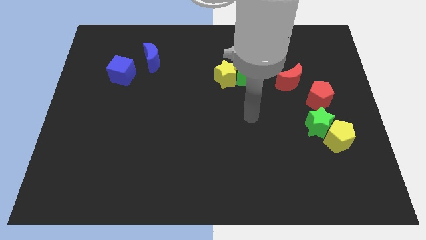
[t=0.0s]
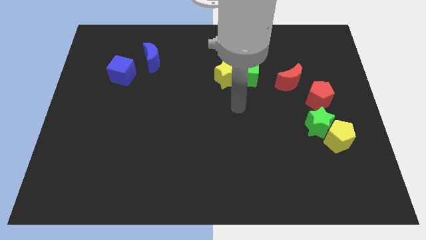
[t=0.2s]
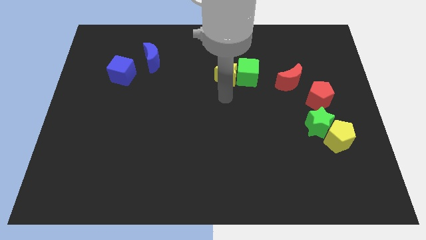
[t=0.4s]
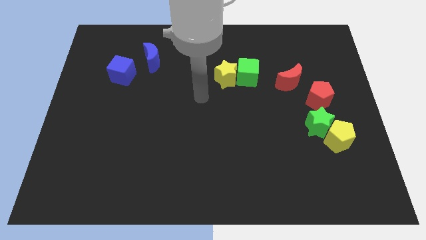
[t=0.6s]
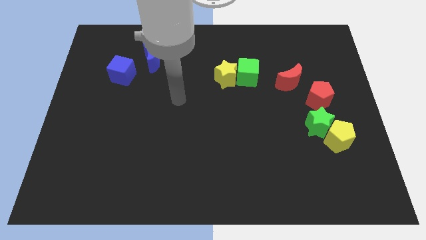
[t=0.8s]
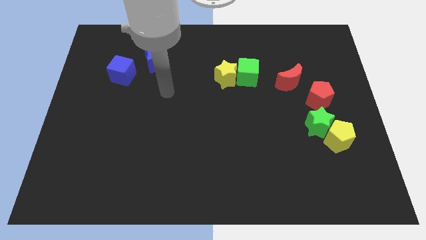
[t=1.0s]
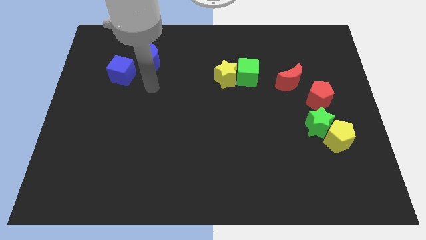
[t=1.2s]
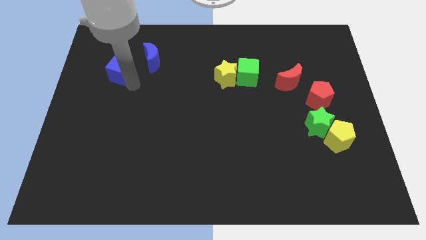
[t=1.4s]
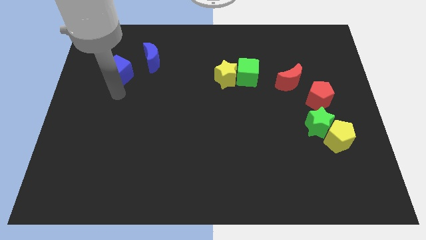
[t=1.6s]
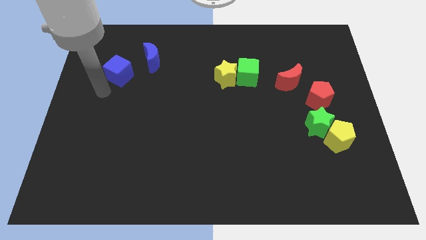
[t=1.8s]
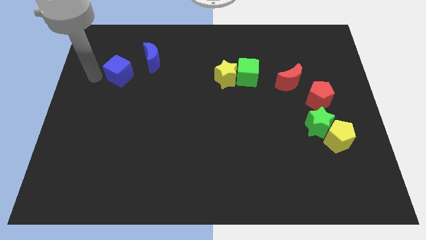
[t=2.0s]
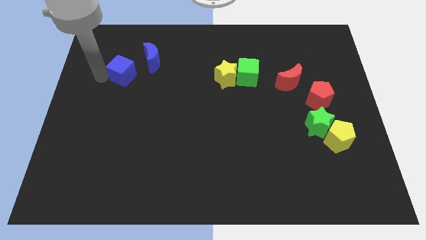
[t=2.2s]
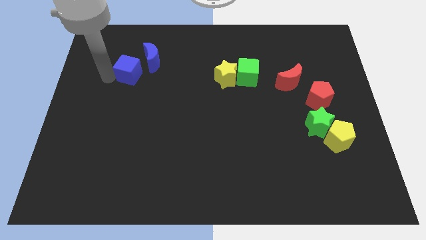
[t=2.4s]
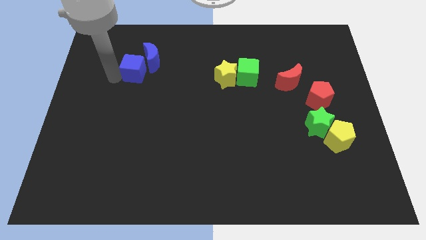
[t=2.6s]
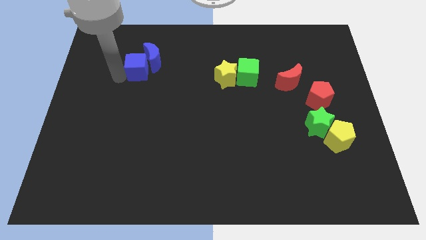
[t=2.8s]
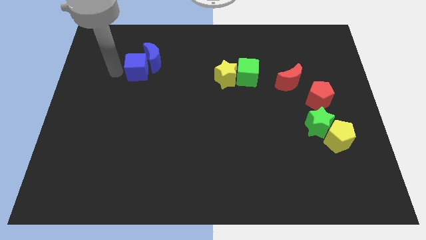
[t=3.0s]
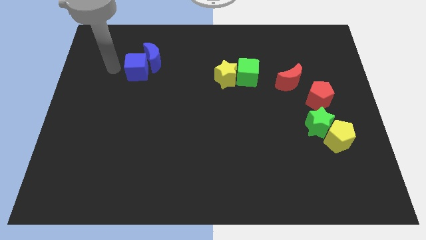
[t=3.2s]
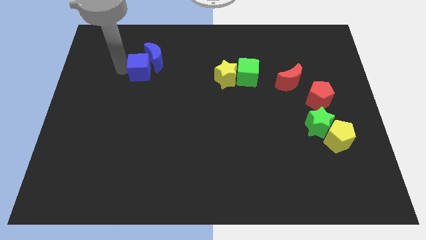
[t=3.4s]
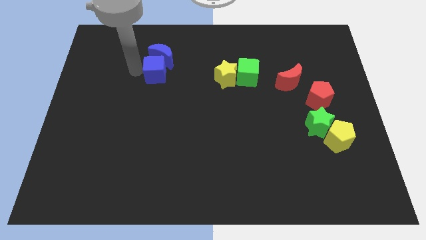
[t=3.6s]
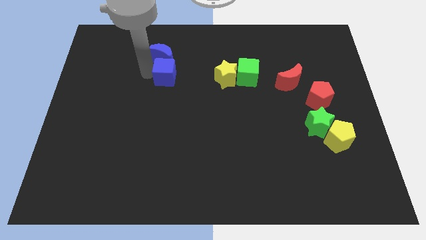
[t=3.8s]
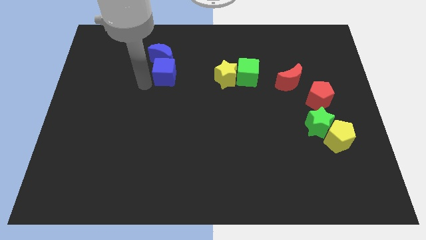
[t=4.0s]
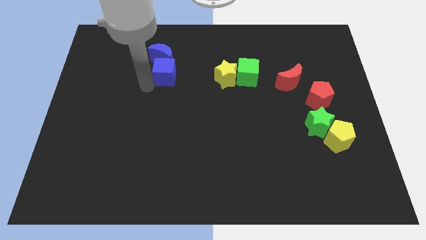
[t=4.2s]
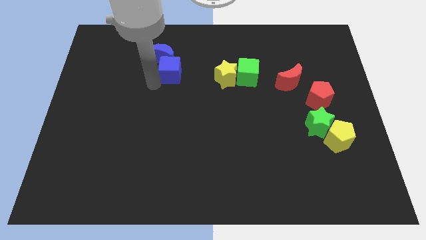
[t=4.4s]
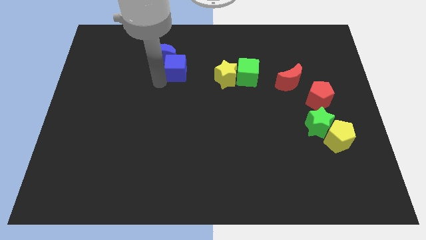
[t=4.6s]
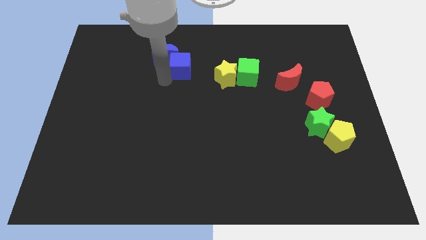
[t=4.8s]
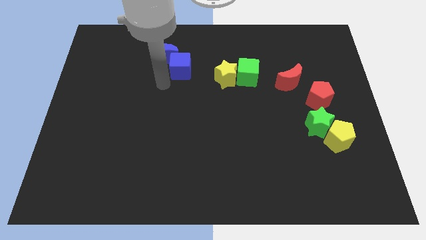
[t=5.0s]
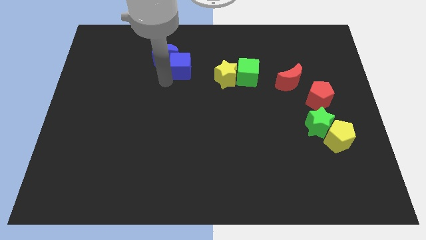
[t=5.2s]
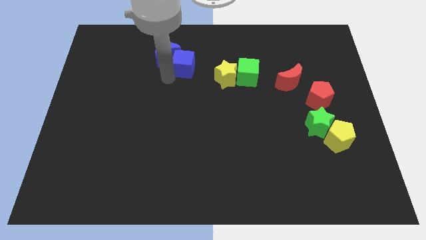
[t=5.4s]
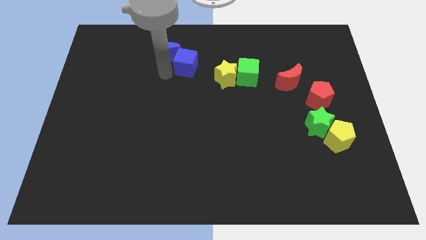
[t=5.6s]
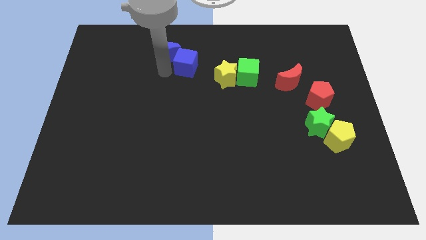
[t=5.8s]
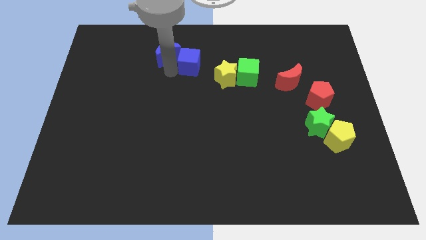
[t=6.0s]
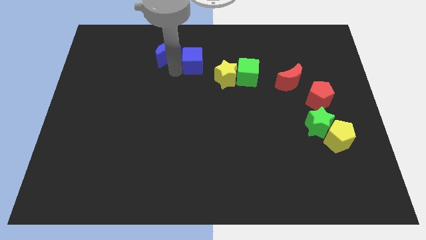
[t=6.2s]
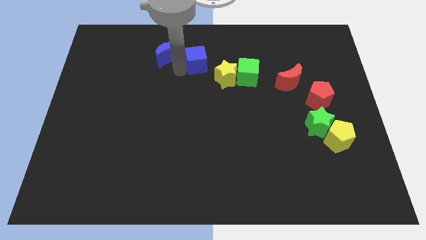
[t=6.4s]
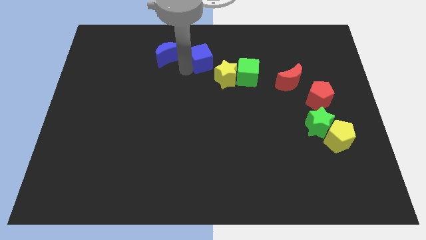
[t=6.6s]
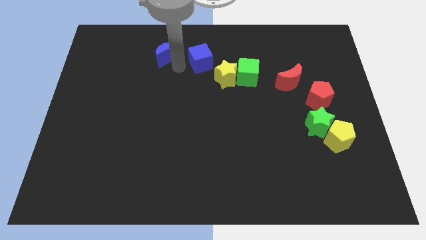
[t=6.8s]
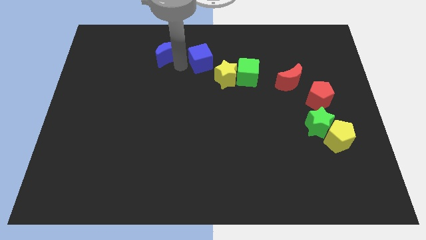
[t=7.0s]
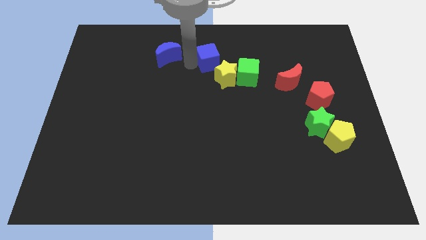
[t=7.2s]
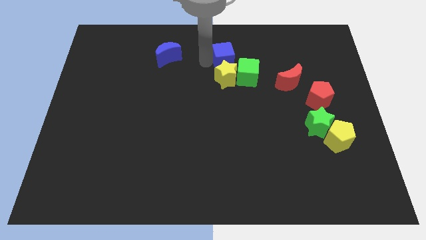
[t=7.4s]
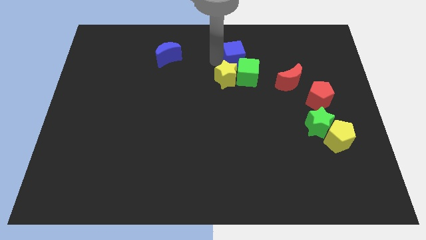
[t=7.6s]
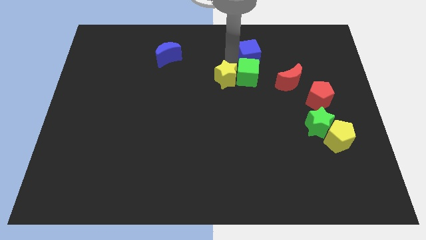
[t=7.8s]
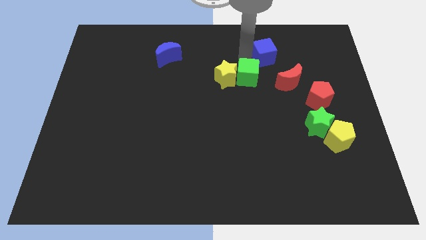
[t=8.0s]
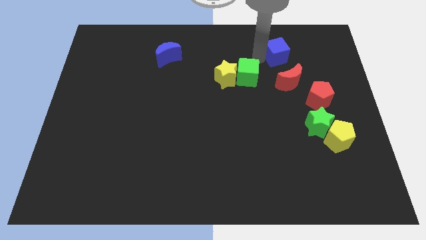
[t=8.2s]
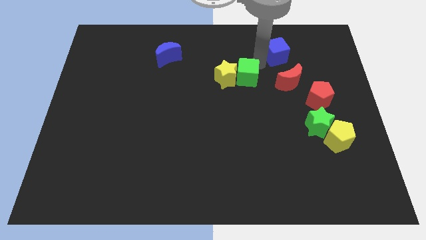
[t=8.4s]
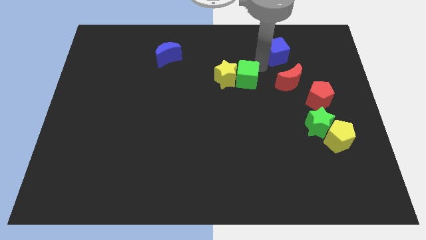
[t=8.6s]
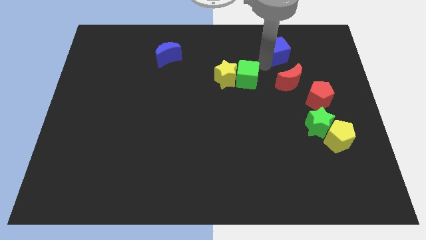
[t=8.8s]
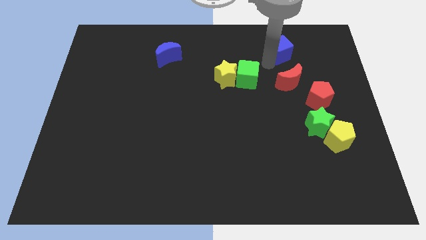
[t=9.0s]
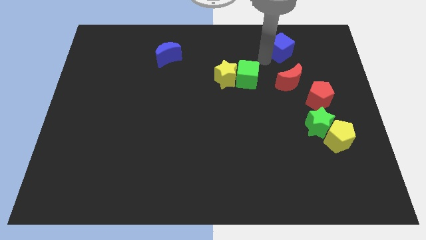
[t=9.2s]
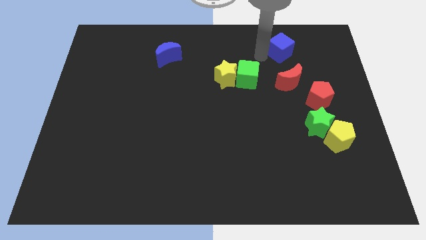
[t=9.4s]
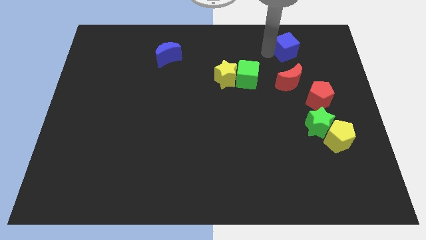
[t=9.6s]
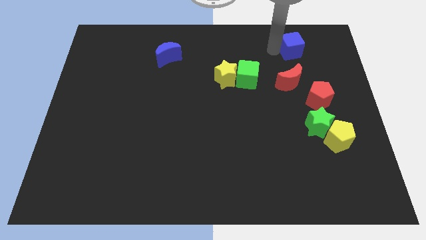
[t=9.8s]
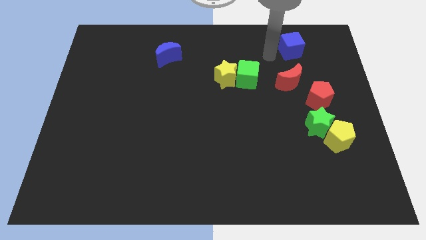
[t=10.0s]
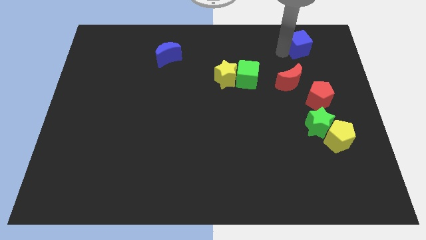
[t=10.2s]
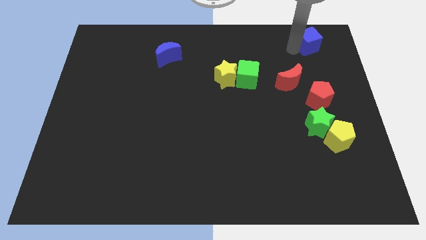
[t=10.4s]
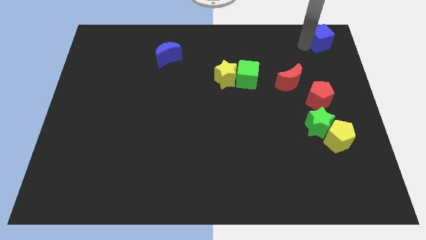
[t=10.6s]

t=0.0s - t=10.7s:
move the blue cube to the top right corner
